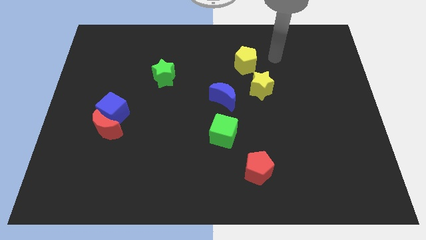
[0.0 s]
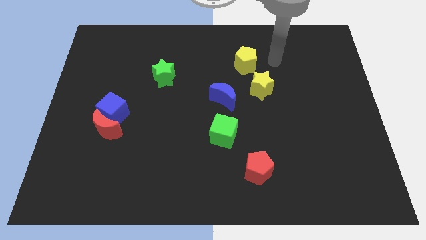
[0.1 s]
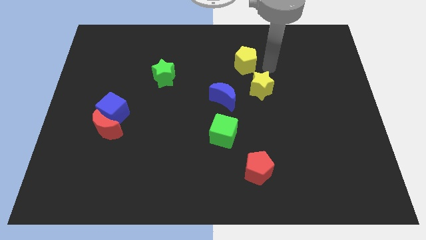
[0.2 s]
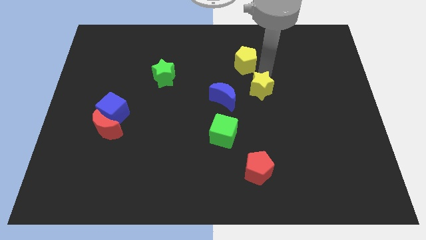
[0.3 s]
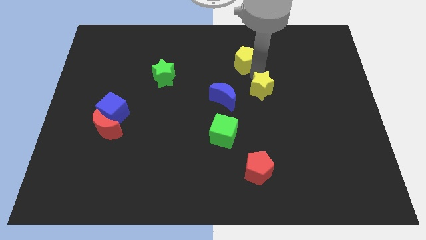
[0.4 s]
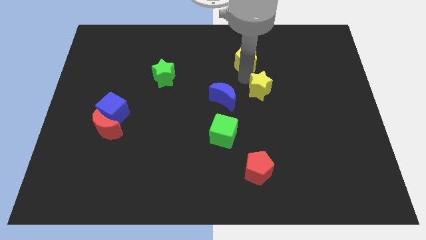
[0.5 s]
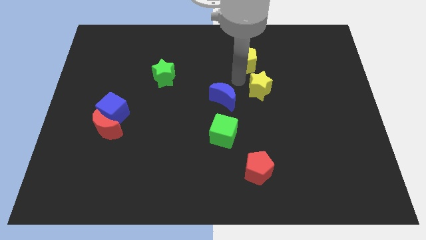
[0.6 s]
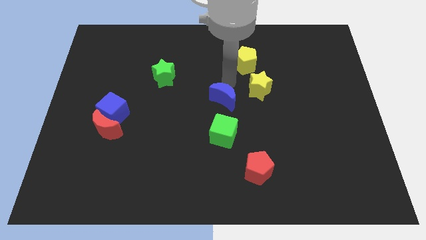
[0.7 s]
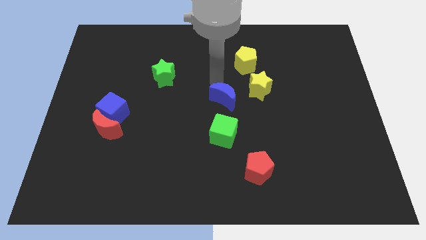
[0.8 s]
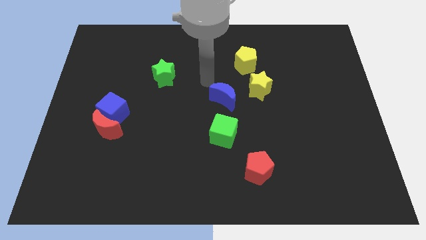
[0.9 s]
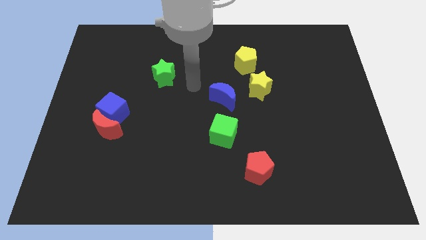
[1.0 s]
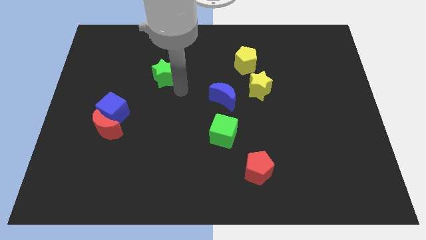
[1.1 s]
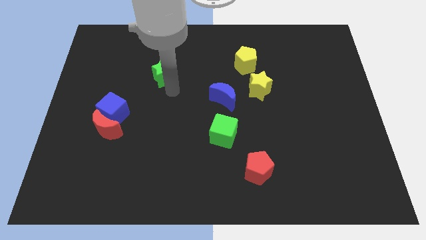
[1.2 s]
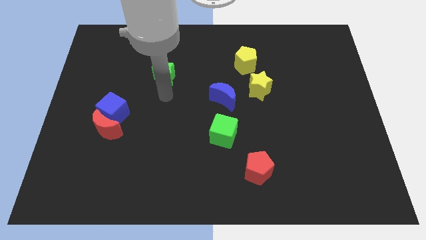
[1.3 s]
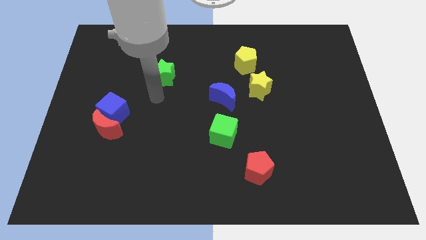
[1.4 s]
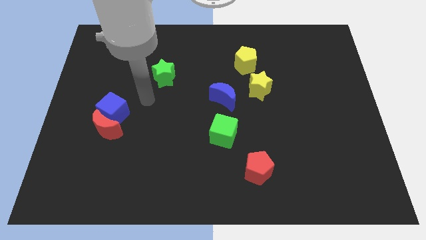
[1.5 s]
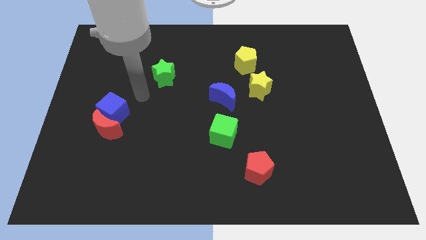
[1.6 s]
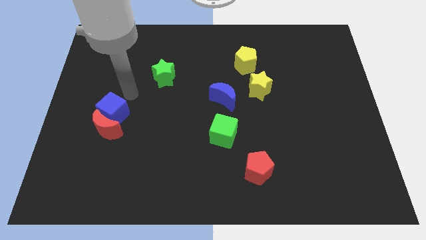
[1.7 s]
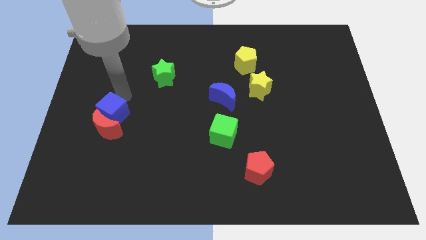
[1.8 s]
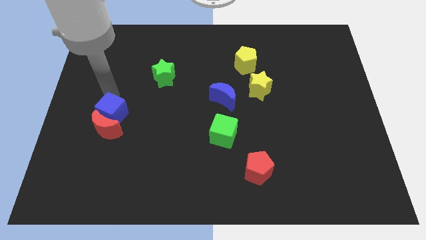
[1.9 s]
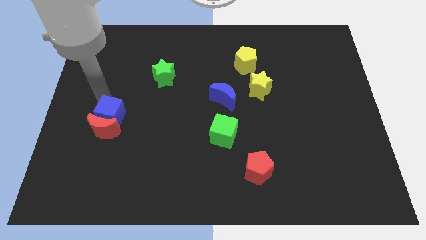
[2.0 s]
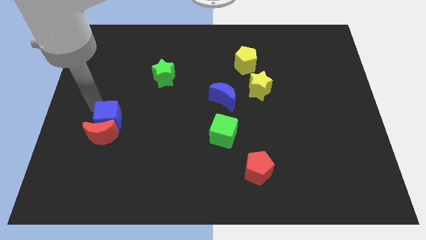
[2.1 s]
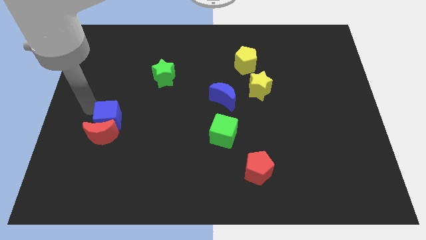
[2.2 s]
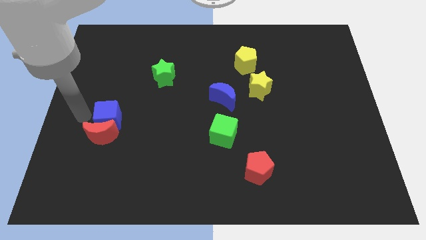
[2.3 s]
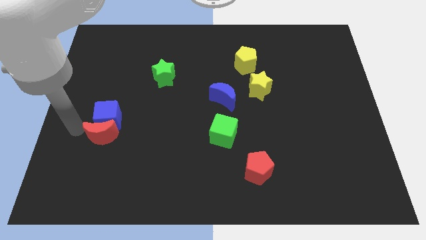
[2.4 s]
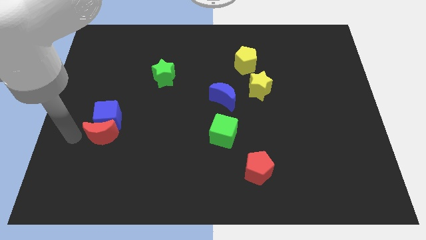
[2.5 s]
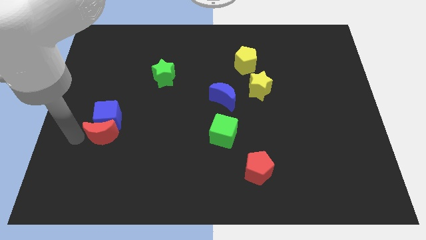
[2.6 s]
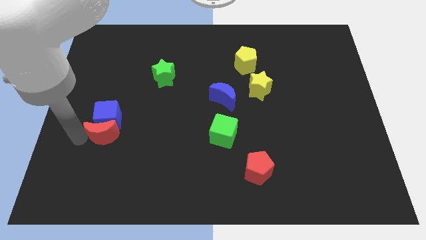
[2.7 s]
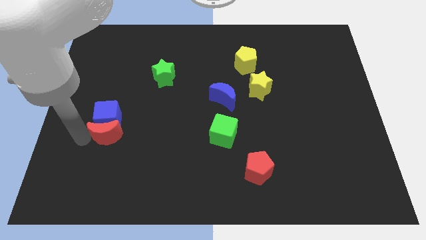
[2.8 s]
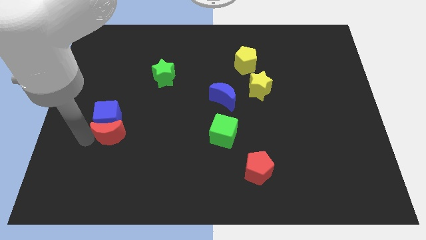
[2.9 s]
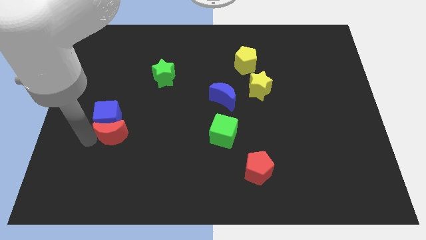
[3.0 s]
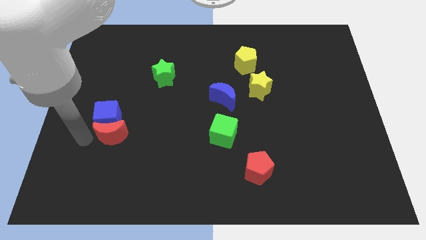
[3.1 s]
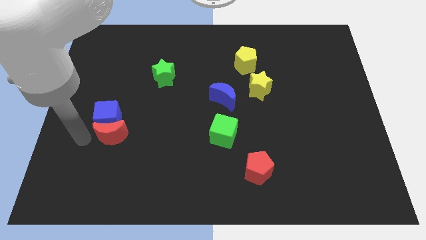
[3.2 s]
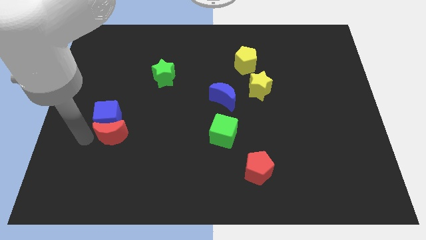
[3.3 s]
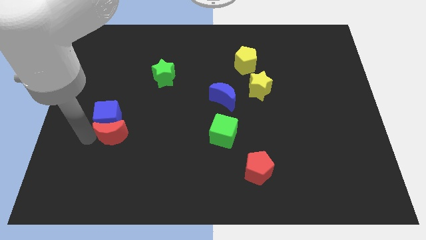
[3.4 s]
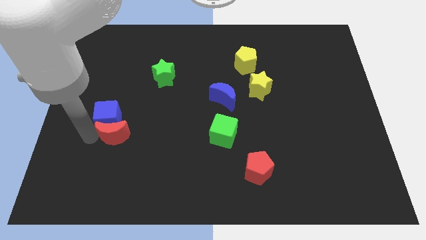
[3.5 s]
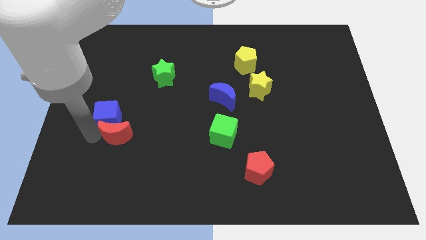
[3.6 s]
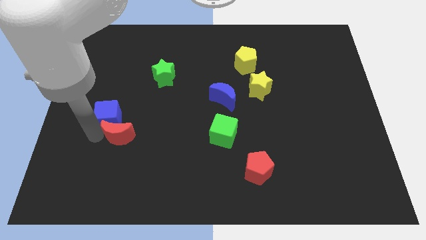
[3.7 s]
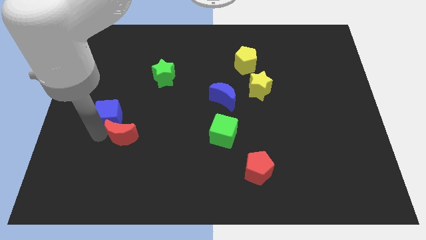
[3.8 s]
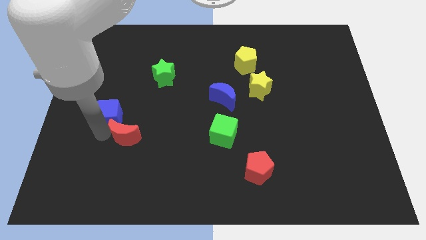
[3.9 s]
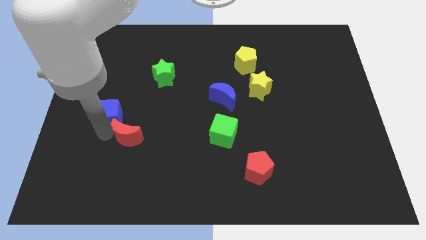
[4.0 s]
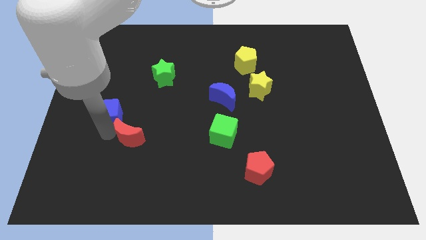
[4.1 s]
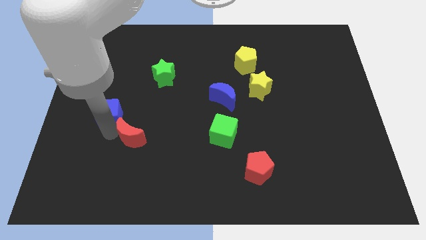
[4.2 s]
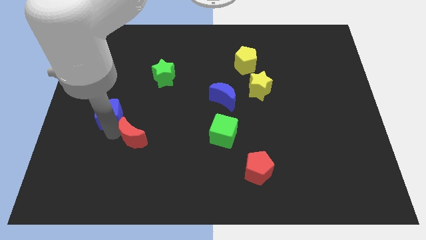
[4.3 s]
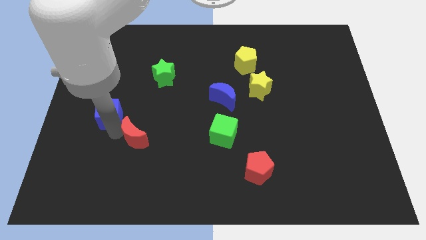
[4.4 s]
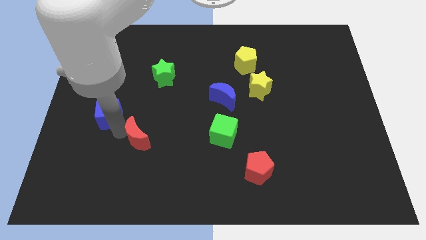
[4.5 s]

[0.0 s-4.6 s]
push the red moon to the right slightly

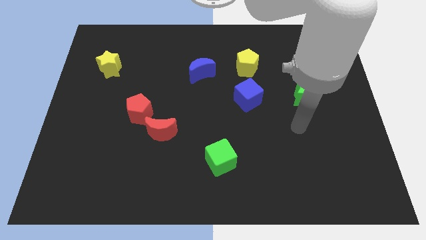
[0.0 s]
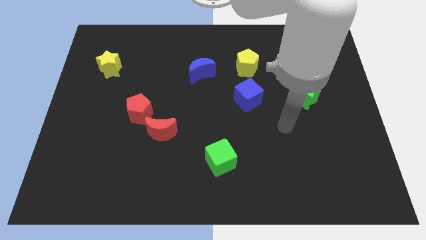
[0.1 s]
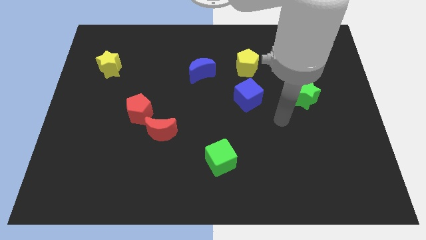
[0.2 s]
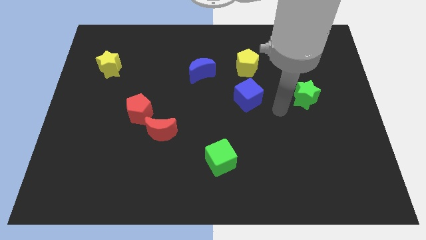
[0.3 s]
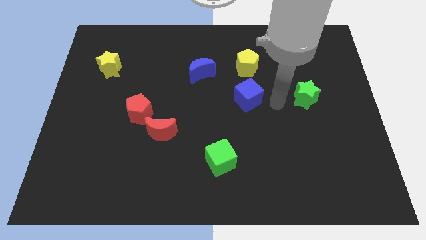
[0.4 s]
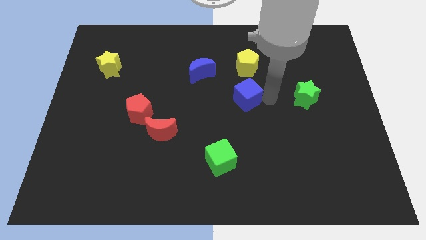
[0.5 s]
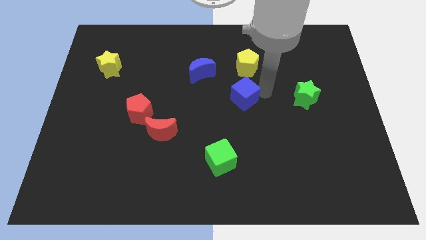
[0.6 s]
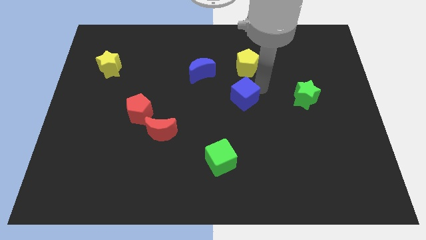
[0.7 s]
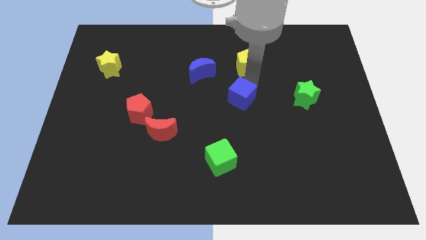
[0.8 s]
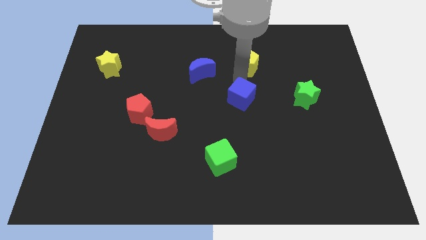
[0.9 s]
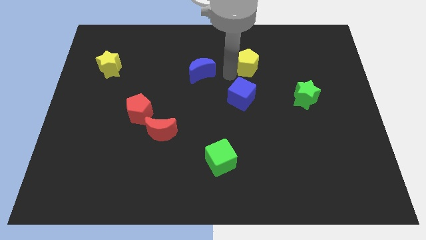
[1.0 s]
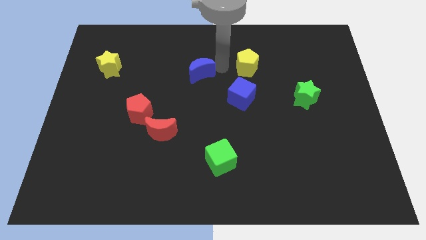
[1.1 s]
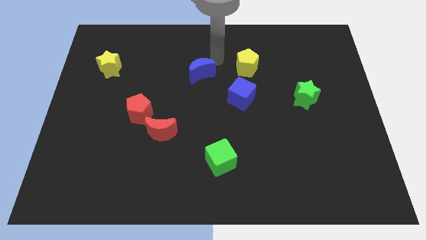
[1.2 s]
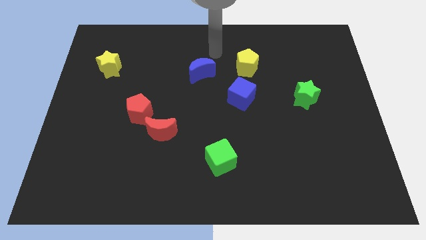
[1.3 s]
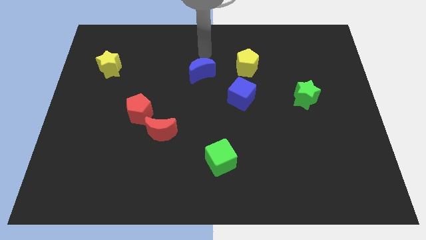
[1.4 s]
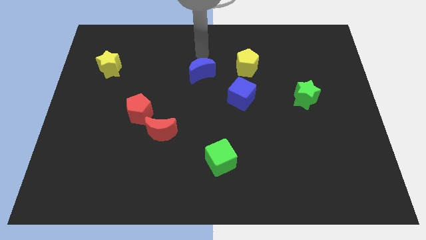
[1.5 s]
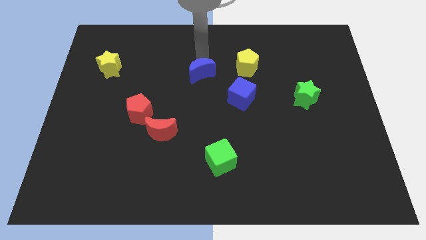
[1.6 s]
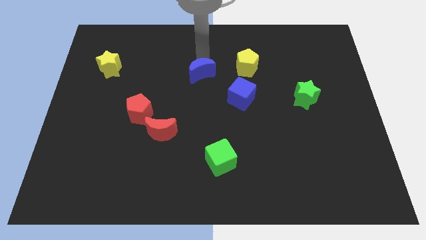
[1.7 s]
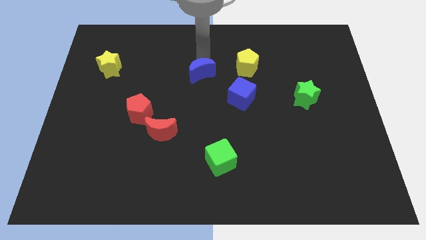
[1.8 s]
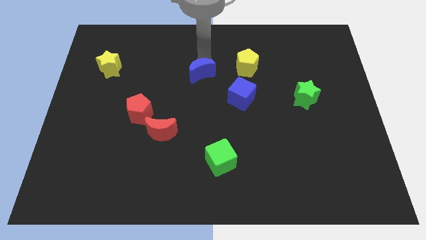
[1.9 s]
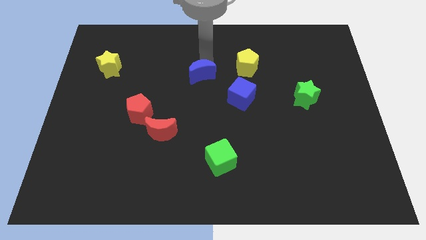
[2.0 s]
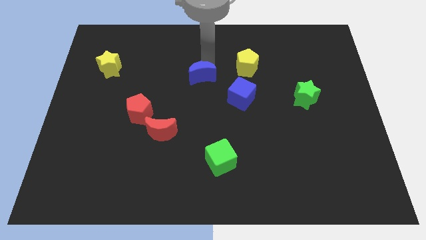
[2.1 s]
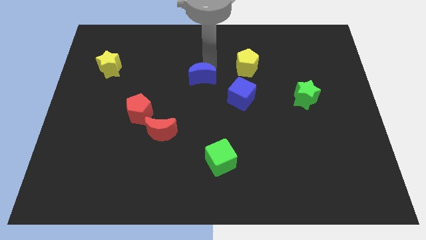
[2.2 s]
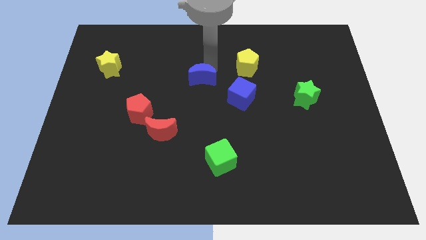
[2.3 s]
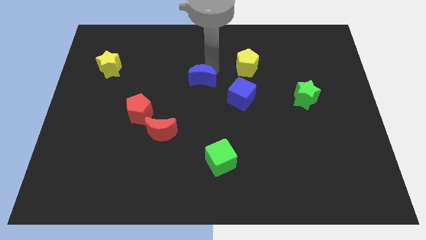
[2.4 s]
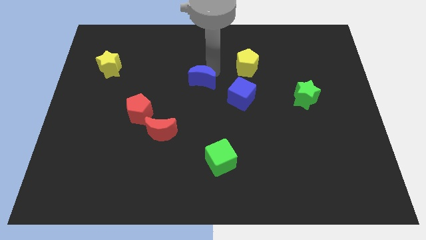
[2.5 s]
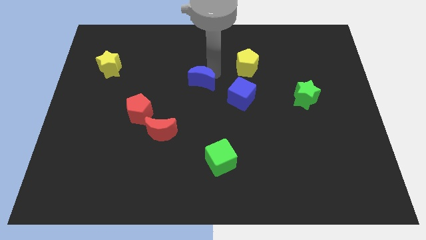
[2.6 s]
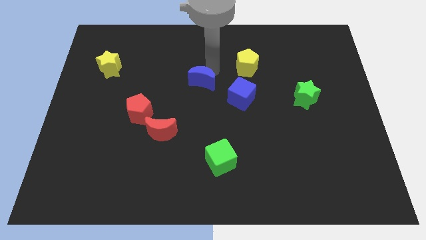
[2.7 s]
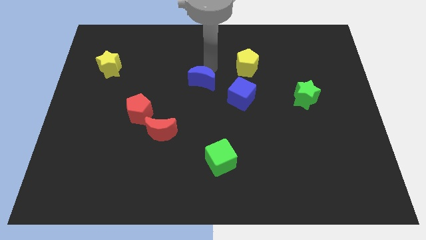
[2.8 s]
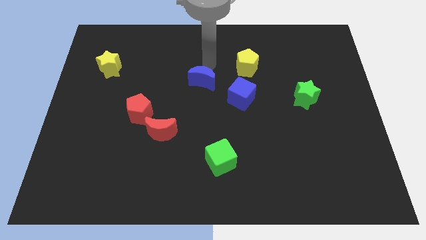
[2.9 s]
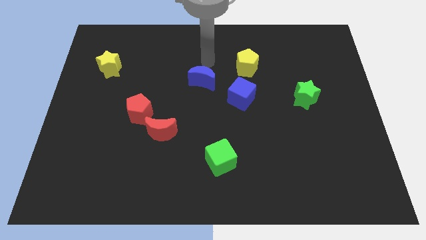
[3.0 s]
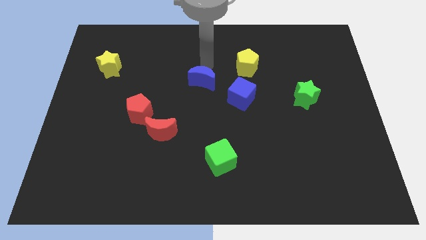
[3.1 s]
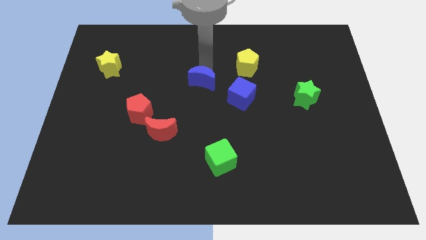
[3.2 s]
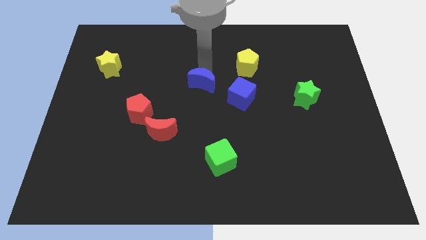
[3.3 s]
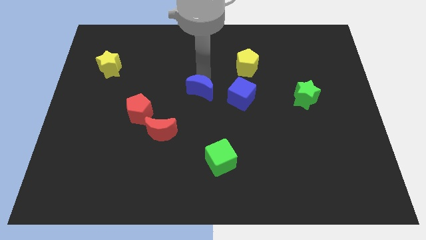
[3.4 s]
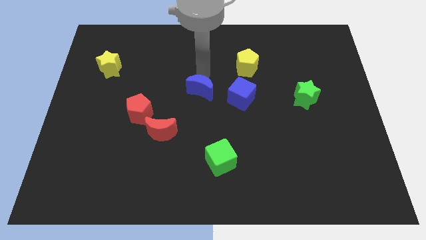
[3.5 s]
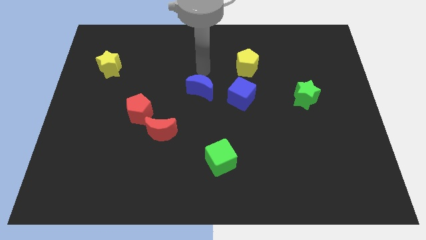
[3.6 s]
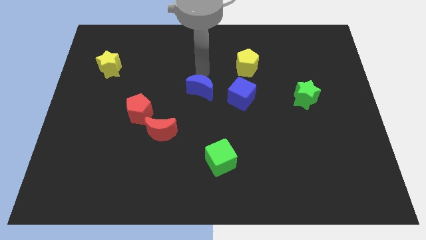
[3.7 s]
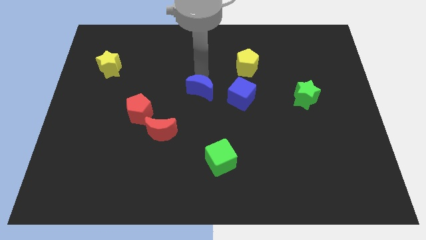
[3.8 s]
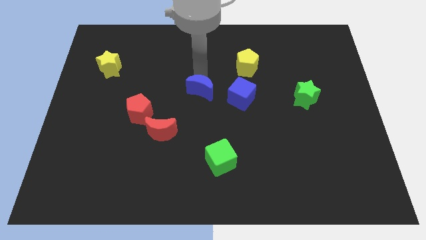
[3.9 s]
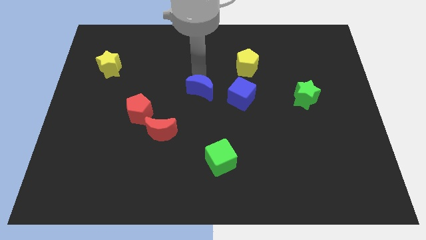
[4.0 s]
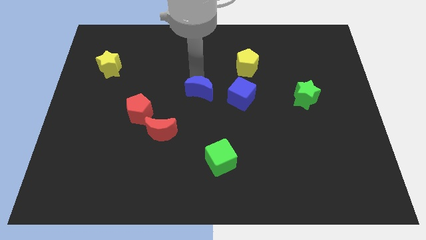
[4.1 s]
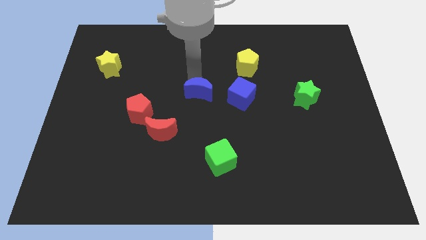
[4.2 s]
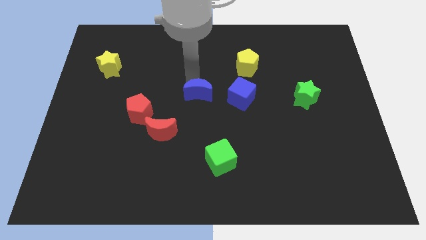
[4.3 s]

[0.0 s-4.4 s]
push the blue moon down somewhat
